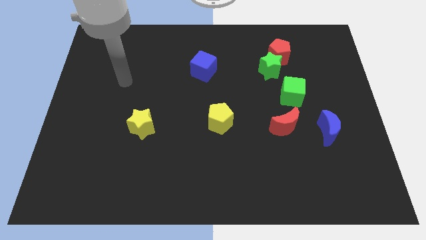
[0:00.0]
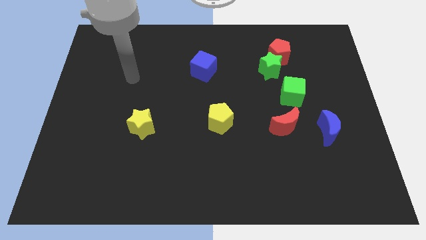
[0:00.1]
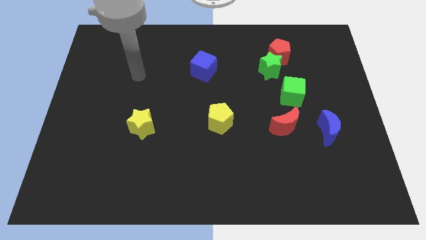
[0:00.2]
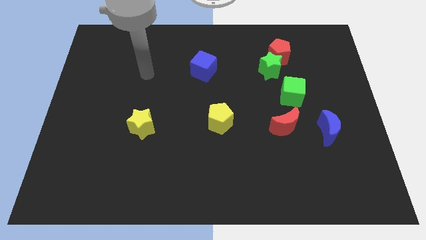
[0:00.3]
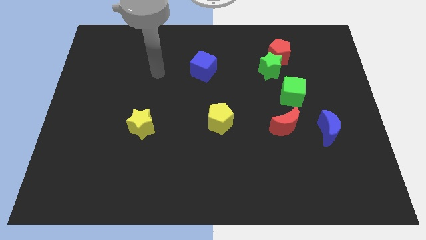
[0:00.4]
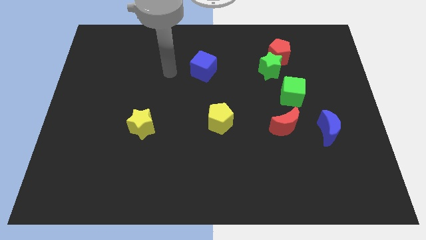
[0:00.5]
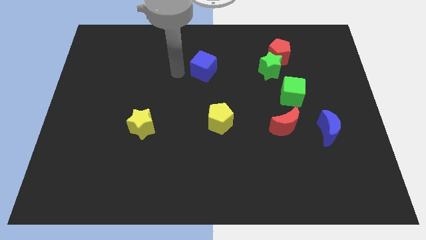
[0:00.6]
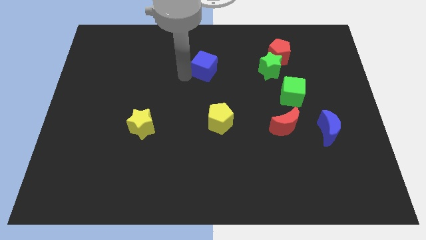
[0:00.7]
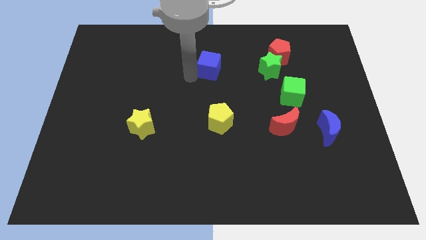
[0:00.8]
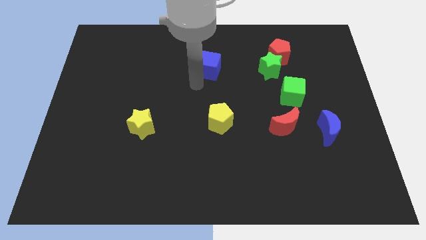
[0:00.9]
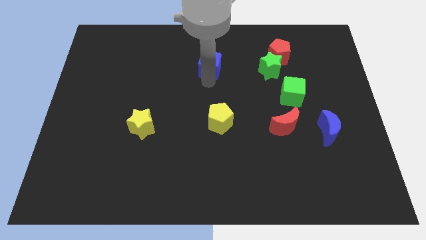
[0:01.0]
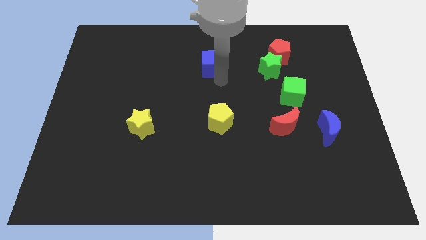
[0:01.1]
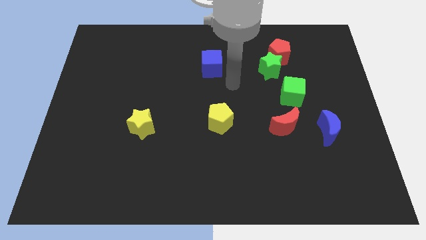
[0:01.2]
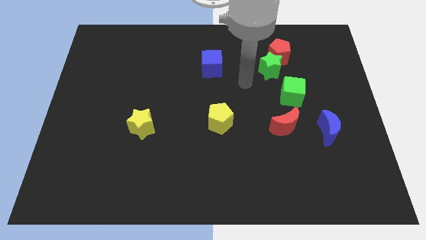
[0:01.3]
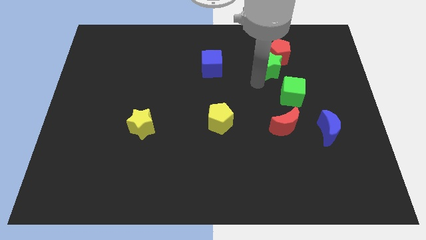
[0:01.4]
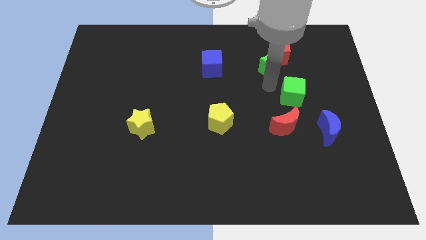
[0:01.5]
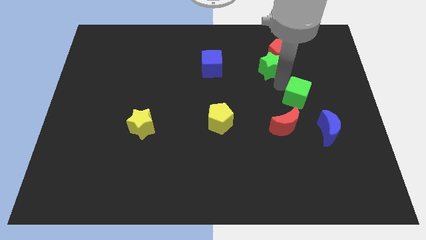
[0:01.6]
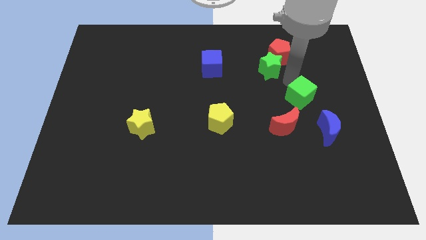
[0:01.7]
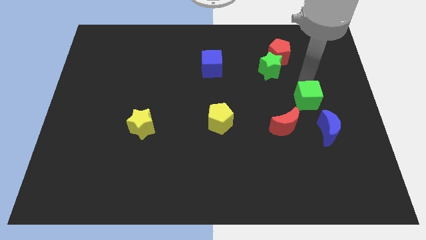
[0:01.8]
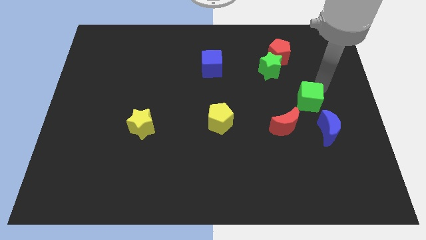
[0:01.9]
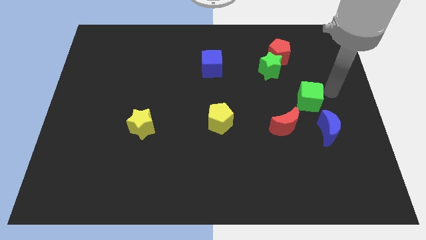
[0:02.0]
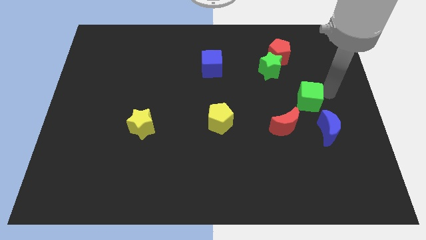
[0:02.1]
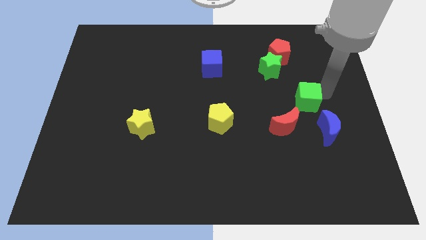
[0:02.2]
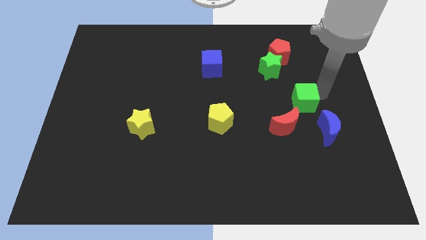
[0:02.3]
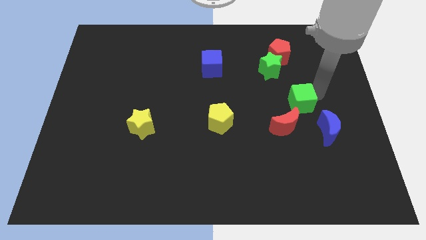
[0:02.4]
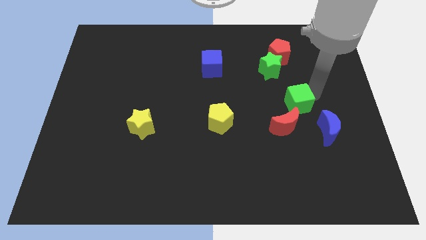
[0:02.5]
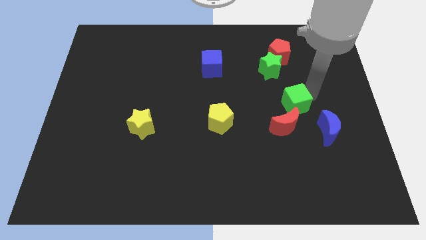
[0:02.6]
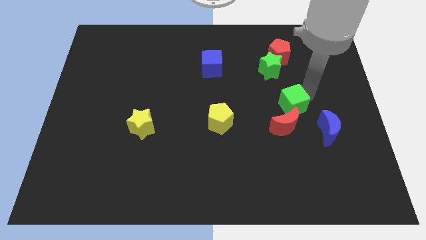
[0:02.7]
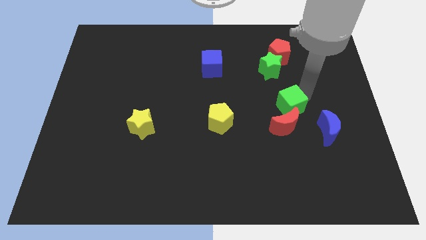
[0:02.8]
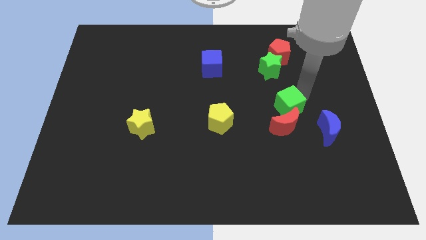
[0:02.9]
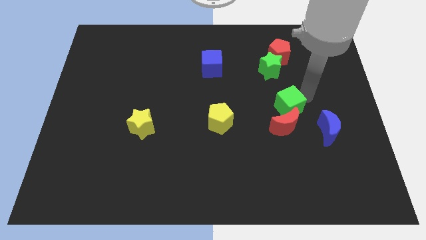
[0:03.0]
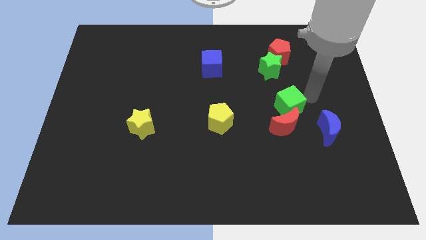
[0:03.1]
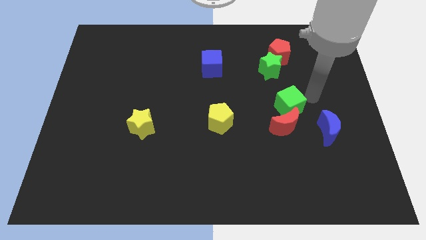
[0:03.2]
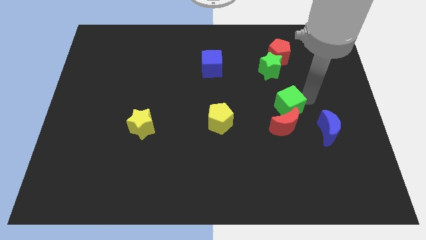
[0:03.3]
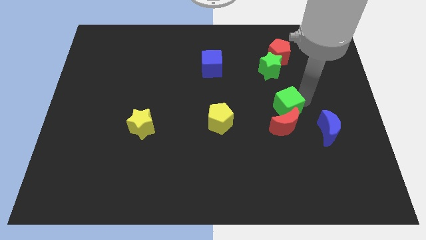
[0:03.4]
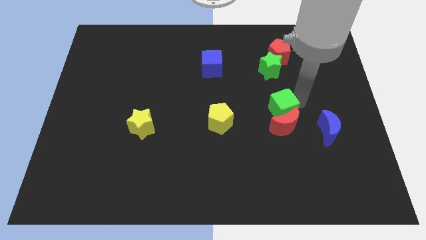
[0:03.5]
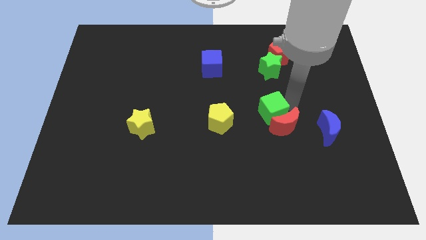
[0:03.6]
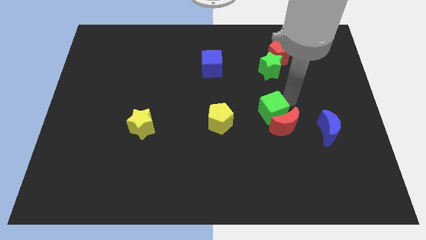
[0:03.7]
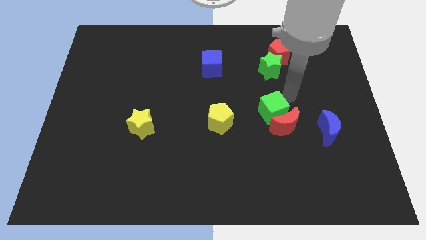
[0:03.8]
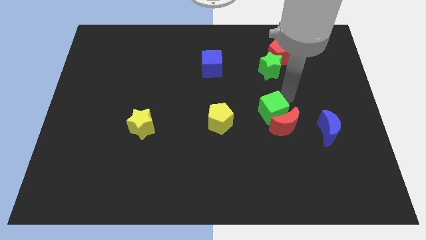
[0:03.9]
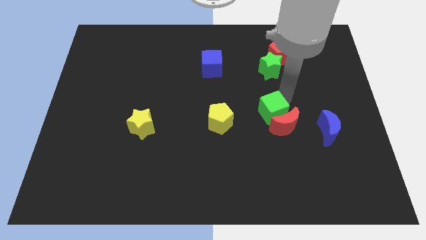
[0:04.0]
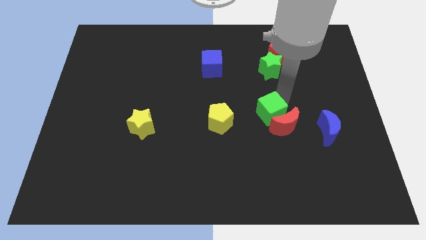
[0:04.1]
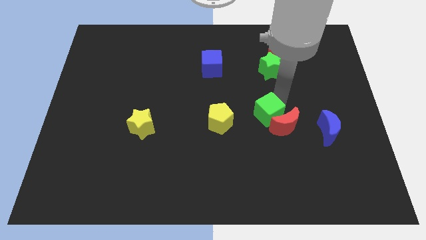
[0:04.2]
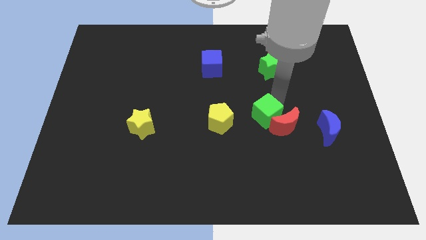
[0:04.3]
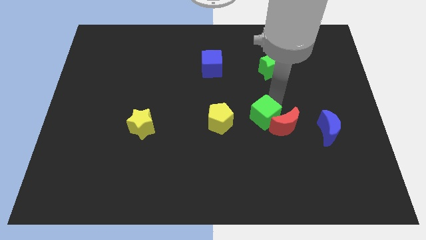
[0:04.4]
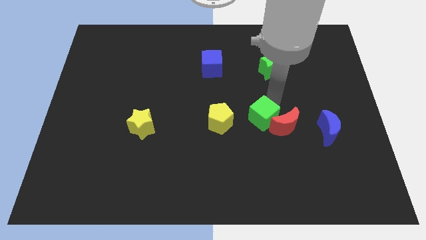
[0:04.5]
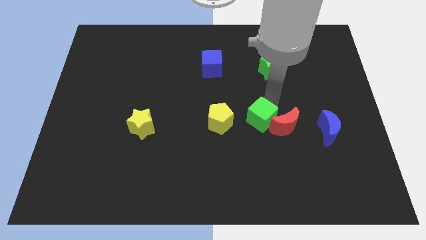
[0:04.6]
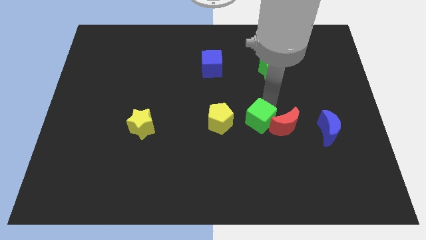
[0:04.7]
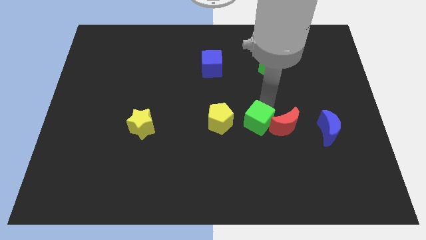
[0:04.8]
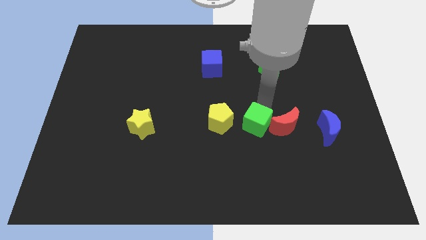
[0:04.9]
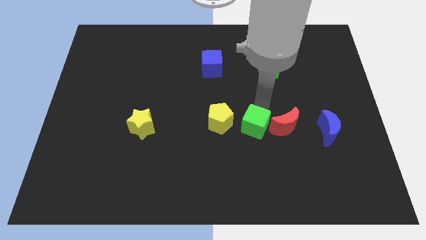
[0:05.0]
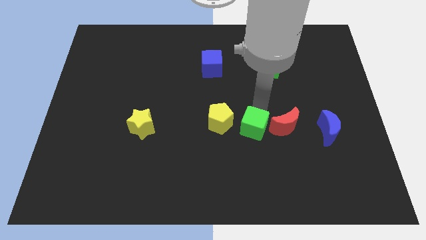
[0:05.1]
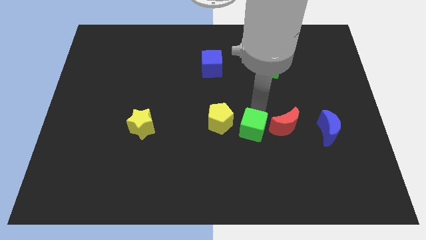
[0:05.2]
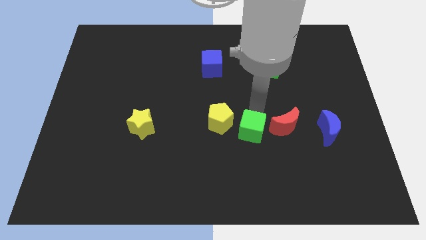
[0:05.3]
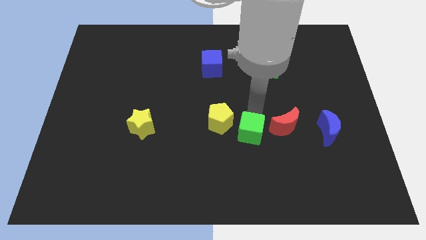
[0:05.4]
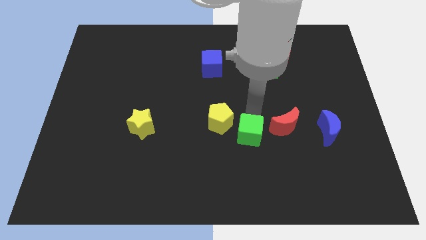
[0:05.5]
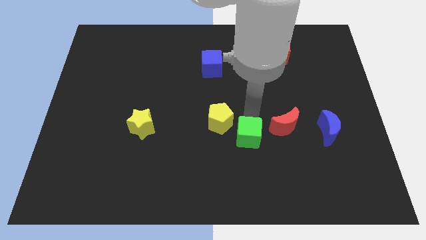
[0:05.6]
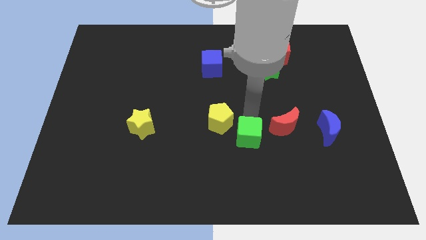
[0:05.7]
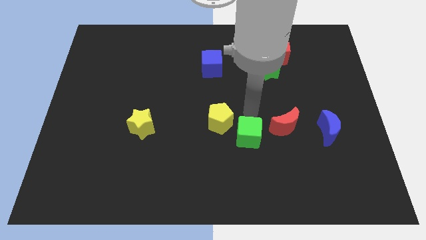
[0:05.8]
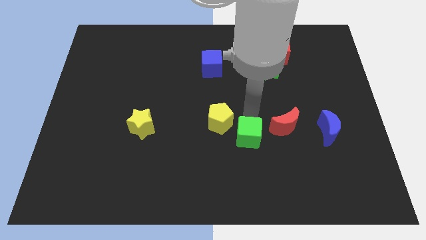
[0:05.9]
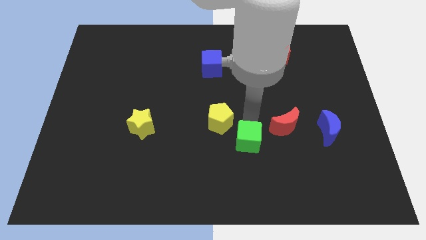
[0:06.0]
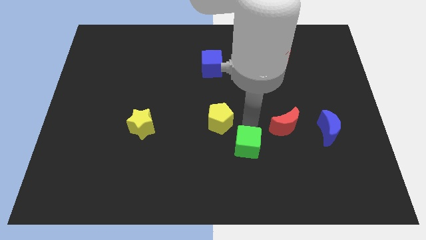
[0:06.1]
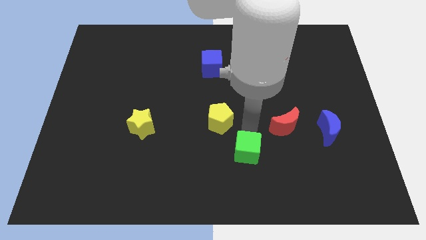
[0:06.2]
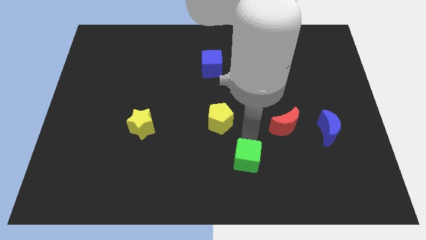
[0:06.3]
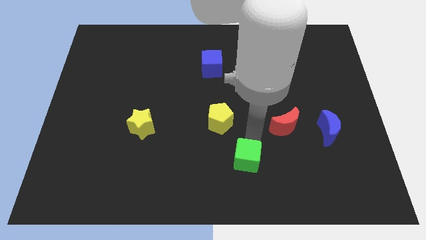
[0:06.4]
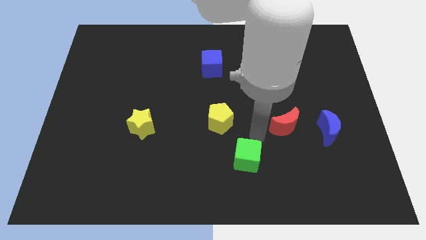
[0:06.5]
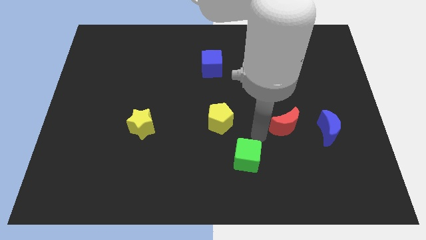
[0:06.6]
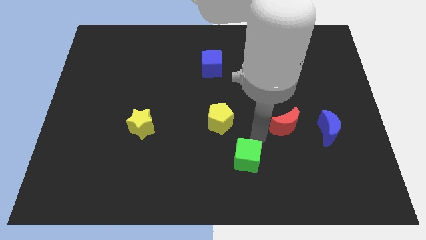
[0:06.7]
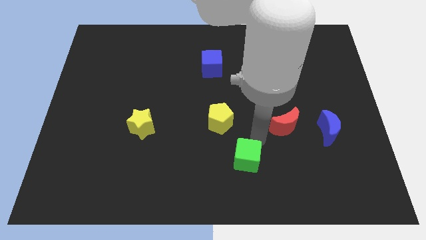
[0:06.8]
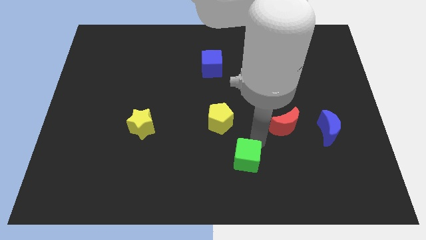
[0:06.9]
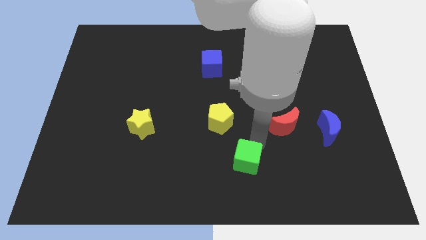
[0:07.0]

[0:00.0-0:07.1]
push the green cube to the bottom
